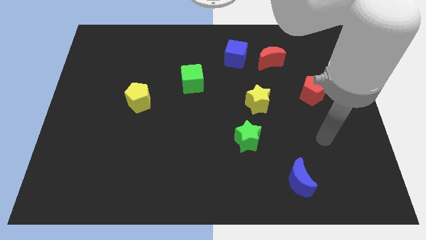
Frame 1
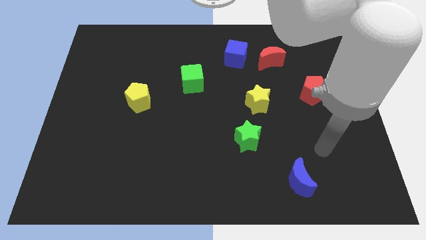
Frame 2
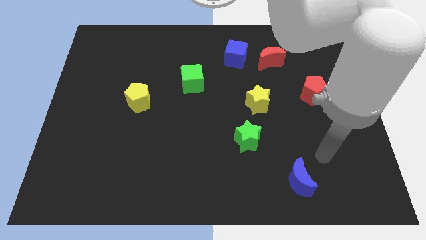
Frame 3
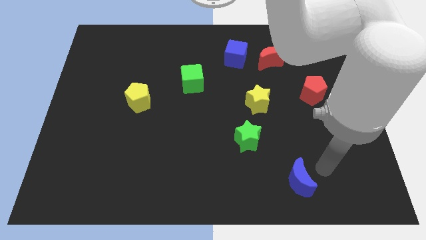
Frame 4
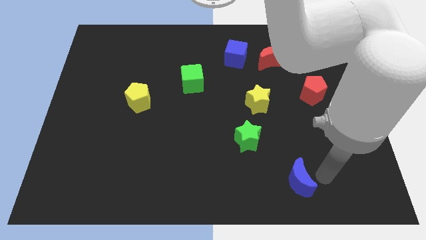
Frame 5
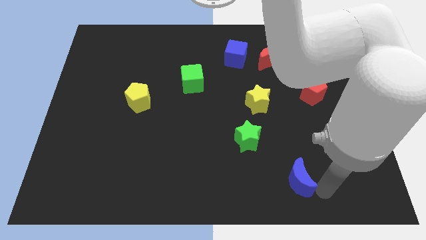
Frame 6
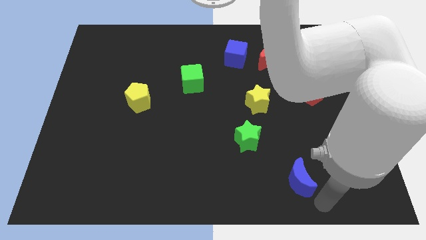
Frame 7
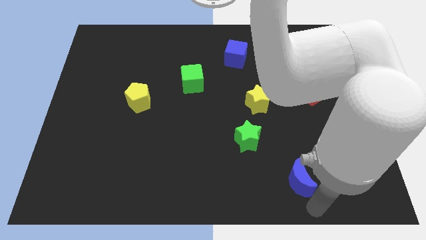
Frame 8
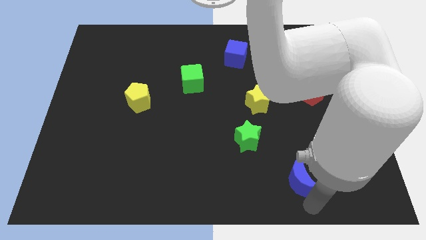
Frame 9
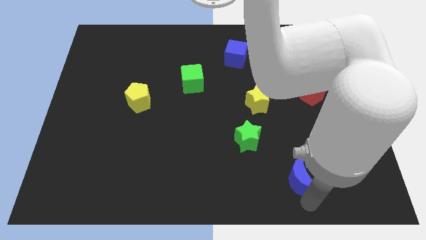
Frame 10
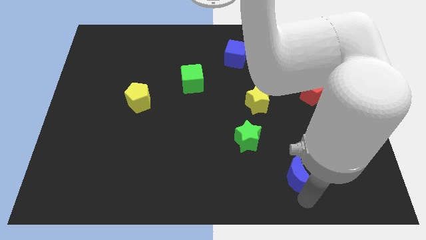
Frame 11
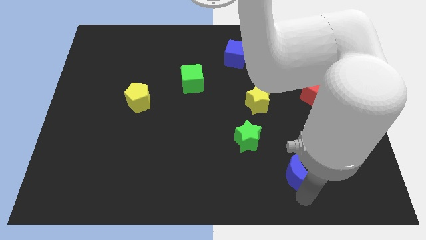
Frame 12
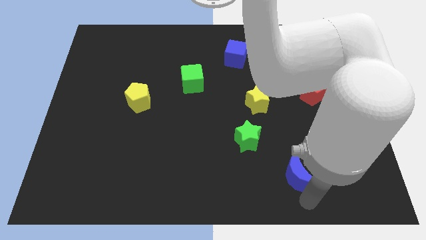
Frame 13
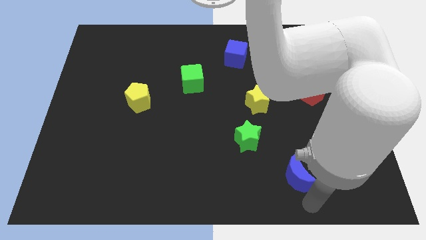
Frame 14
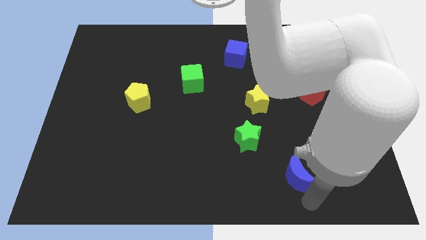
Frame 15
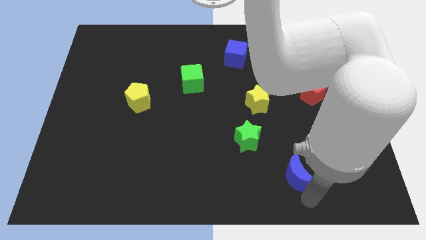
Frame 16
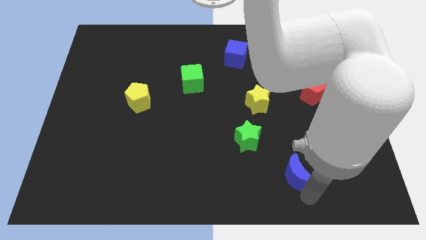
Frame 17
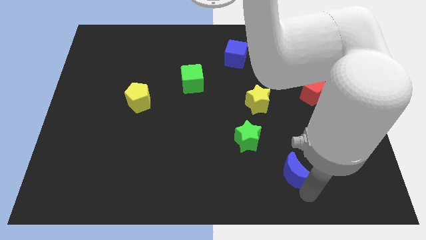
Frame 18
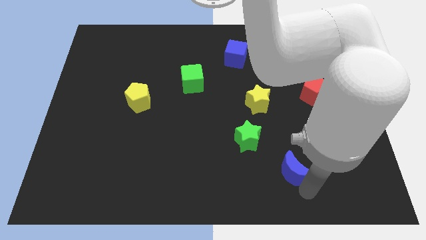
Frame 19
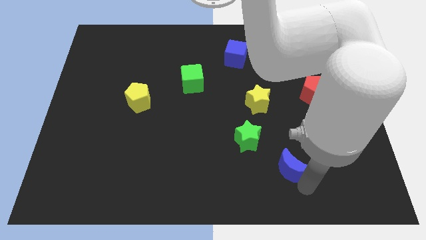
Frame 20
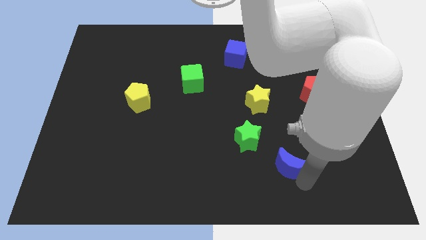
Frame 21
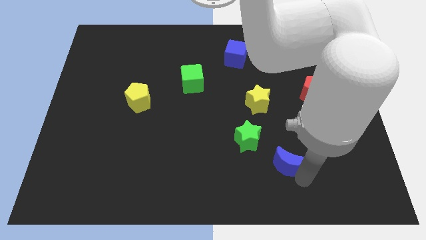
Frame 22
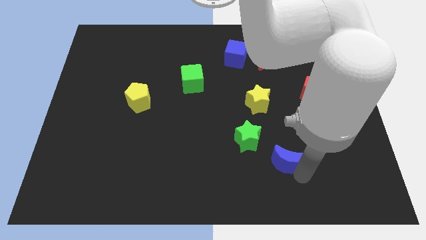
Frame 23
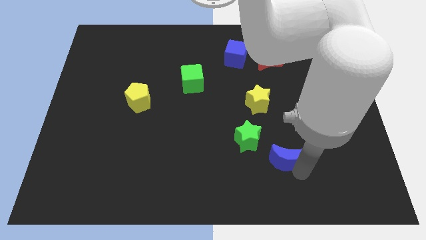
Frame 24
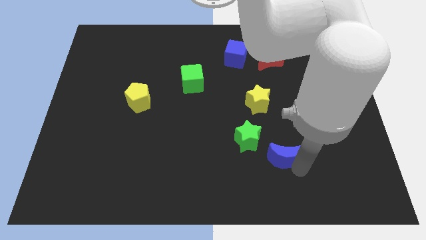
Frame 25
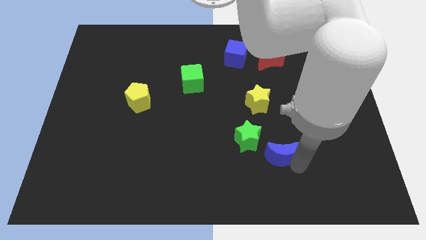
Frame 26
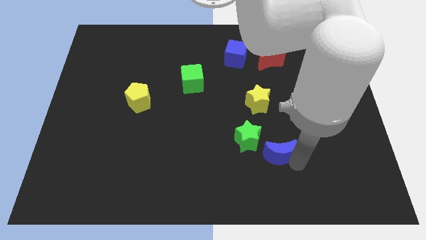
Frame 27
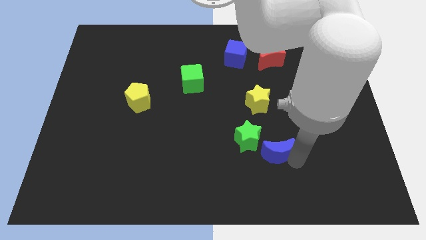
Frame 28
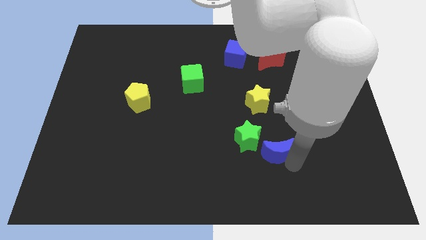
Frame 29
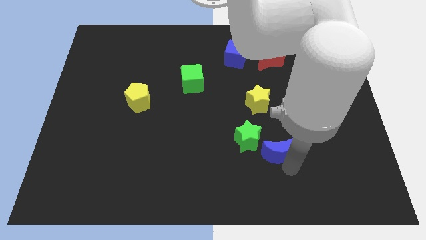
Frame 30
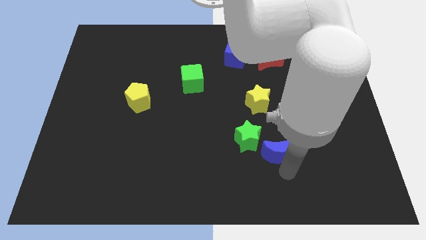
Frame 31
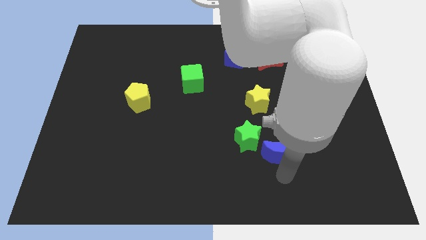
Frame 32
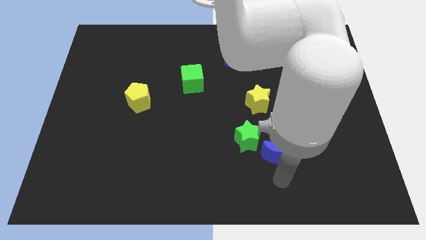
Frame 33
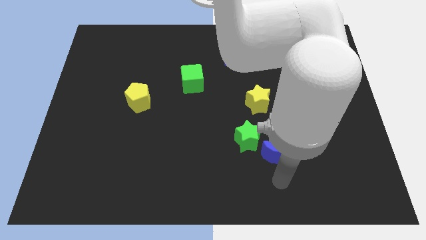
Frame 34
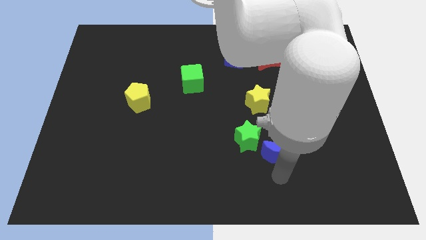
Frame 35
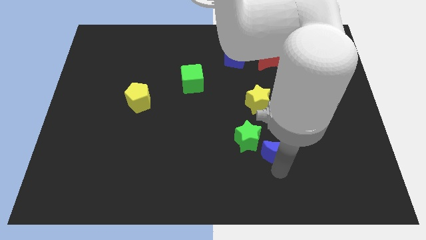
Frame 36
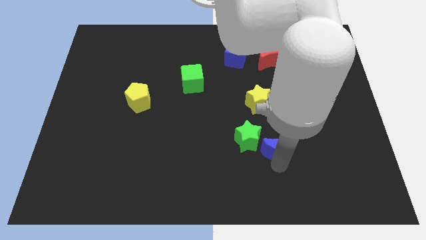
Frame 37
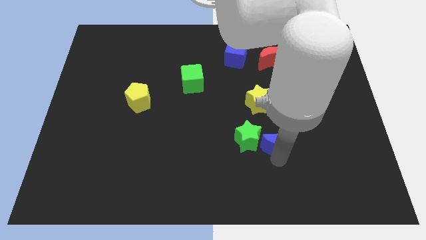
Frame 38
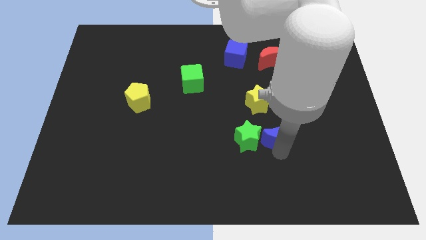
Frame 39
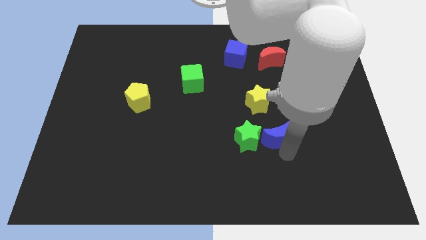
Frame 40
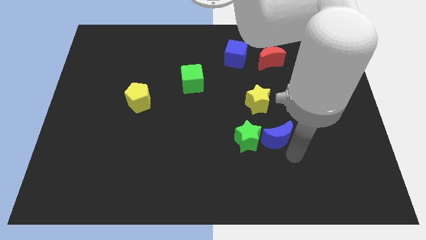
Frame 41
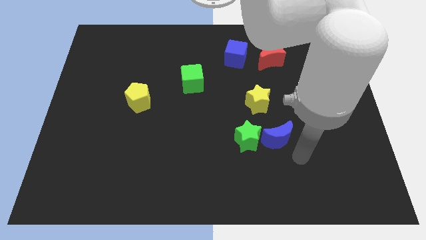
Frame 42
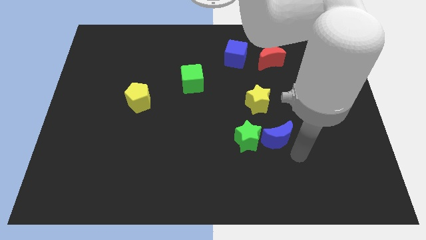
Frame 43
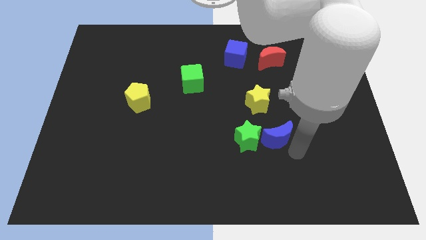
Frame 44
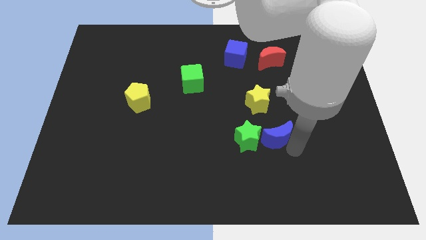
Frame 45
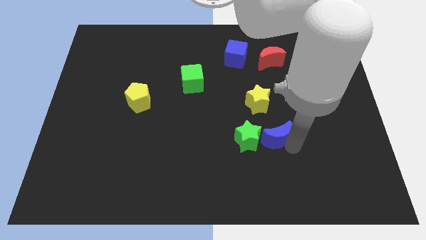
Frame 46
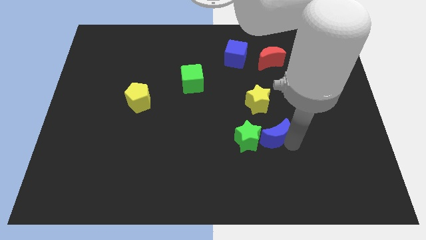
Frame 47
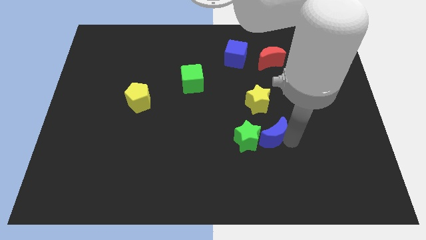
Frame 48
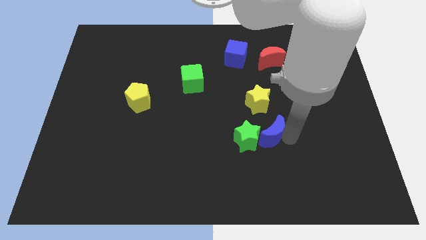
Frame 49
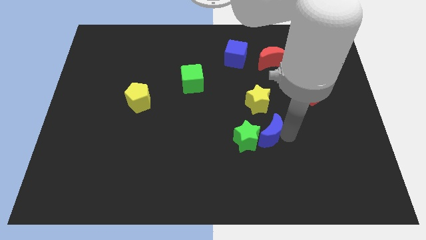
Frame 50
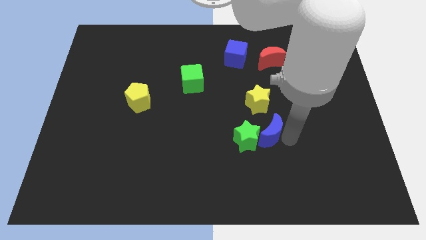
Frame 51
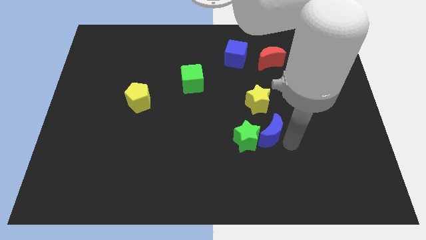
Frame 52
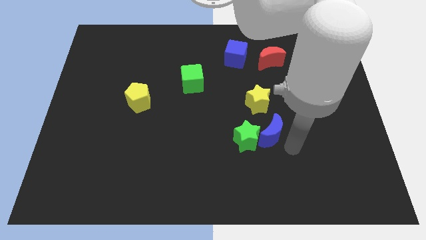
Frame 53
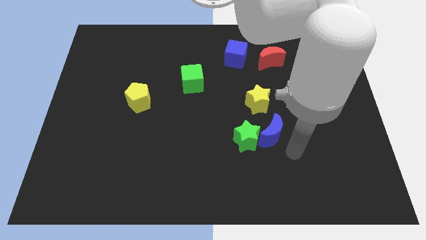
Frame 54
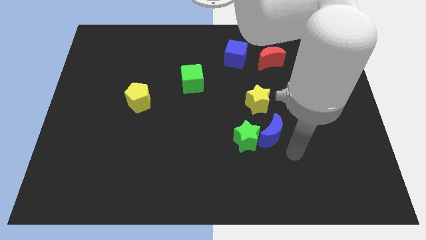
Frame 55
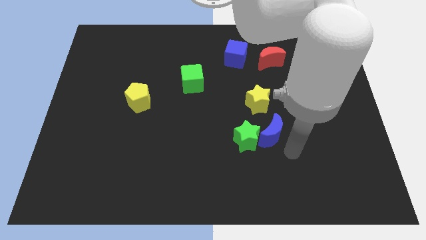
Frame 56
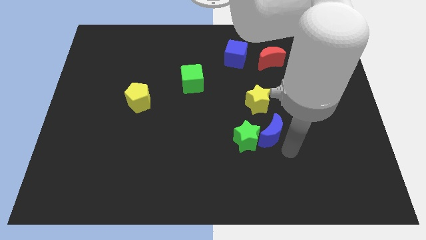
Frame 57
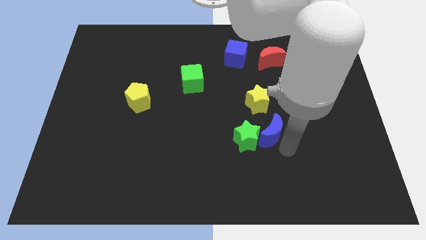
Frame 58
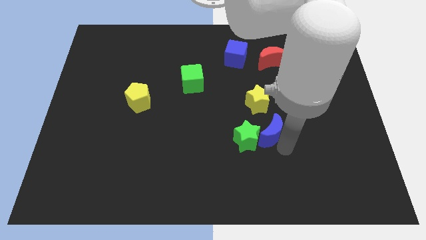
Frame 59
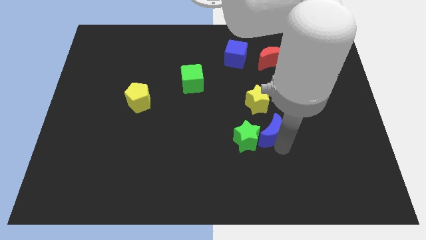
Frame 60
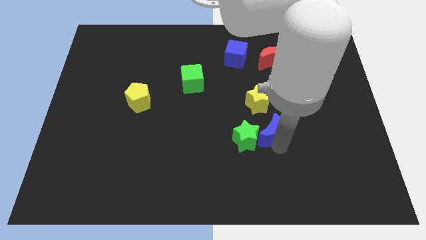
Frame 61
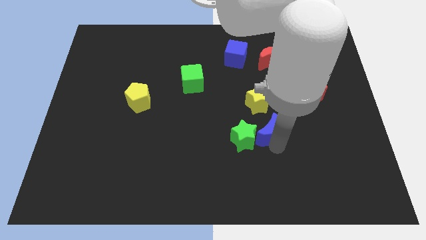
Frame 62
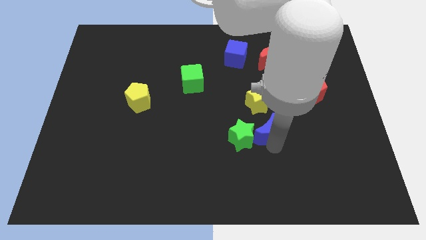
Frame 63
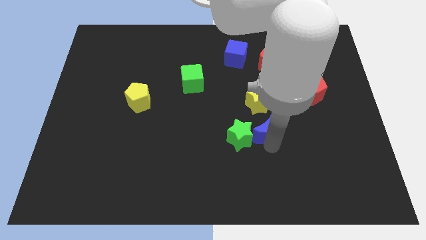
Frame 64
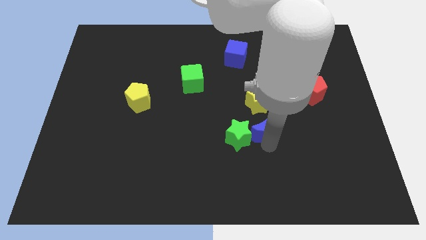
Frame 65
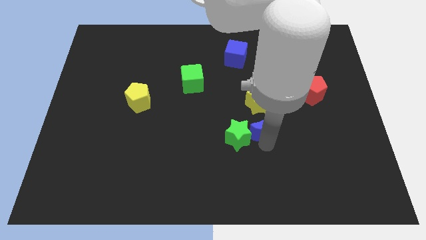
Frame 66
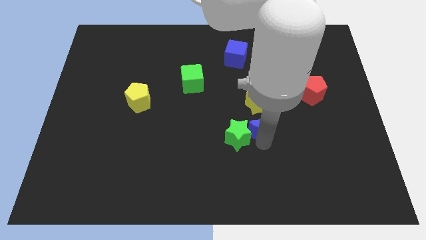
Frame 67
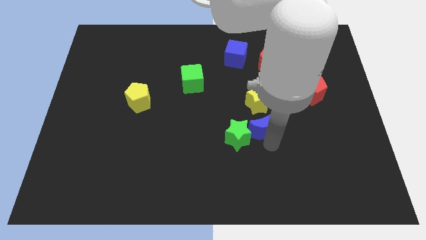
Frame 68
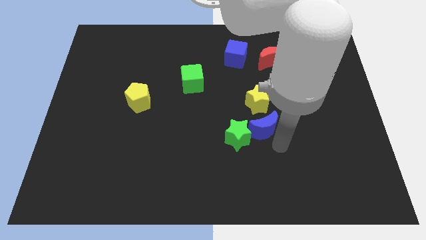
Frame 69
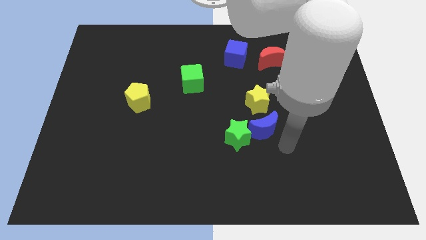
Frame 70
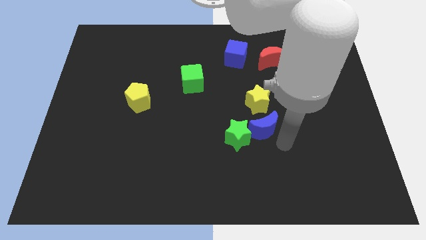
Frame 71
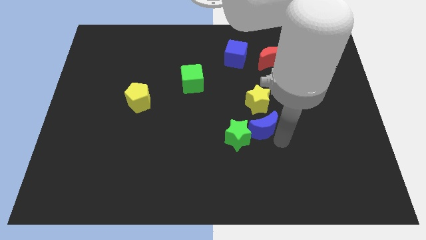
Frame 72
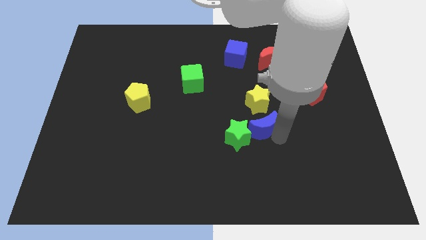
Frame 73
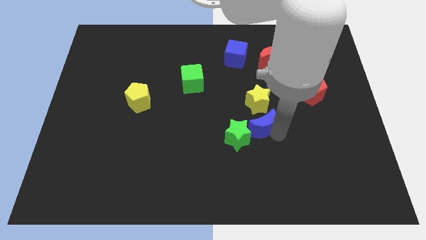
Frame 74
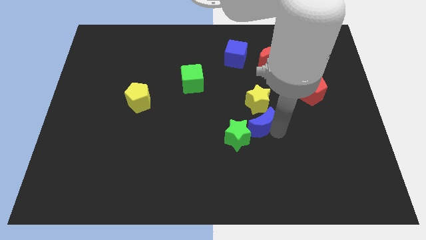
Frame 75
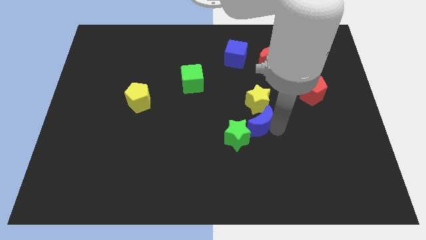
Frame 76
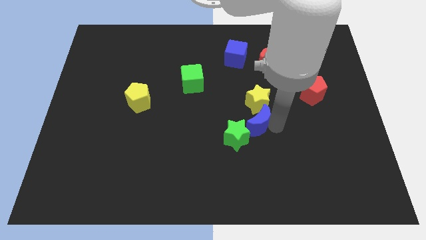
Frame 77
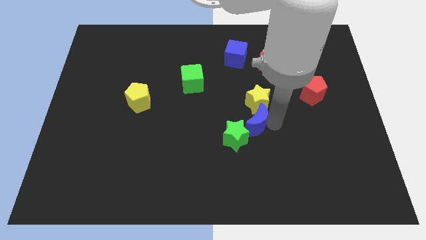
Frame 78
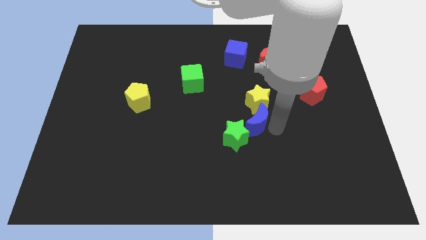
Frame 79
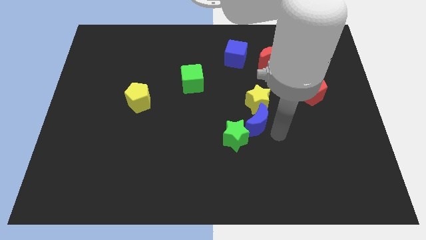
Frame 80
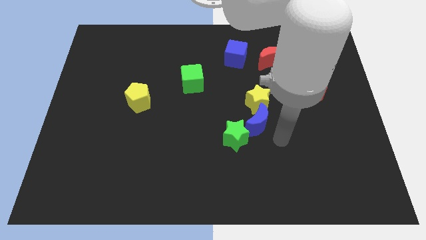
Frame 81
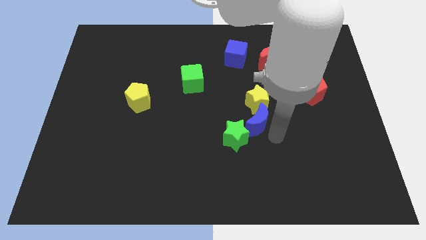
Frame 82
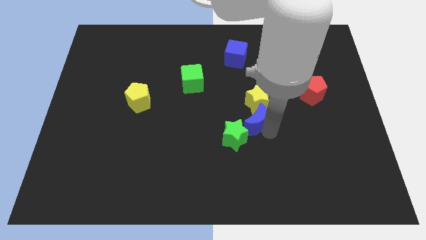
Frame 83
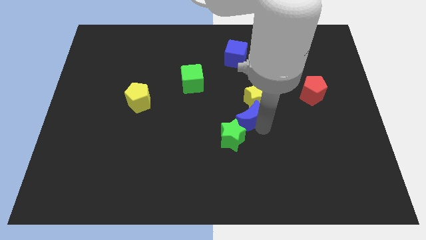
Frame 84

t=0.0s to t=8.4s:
put the blue moon to the top of the green star
